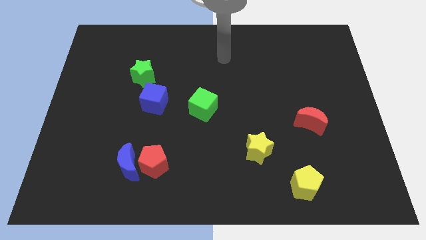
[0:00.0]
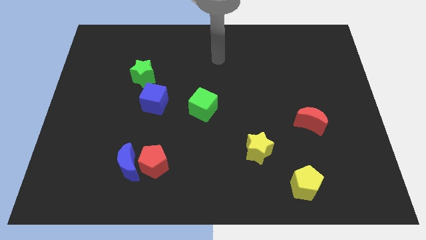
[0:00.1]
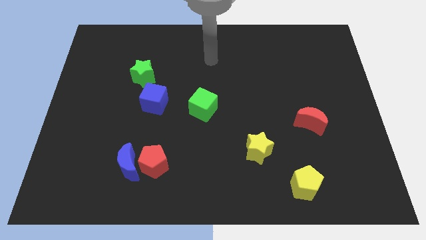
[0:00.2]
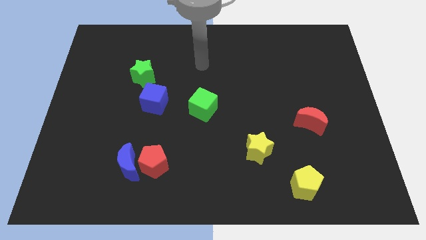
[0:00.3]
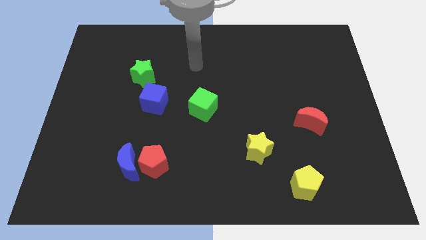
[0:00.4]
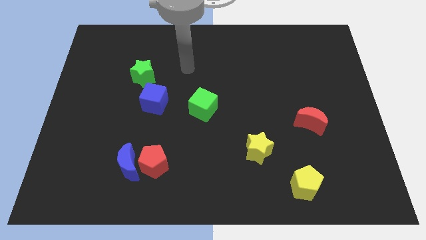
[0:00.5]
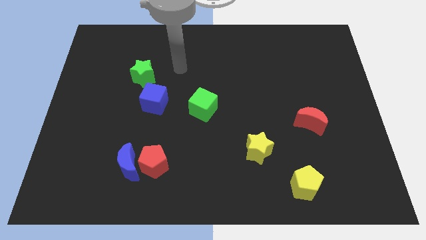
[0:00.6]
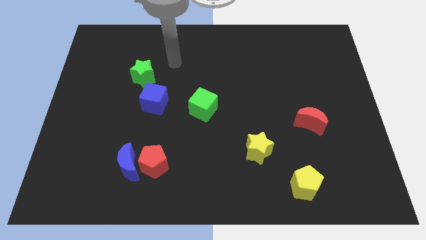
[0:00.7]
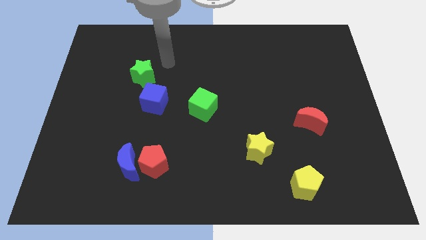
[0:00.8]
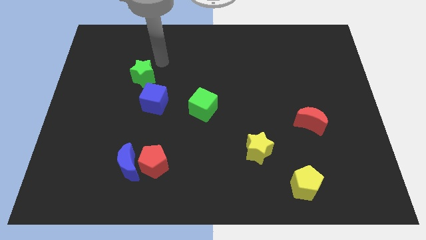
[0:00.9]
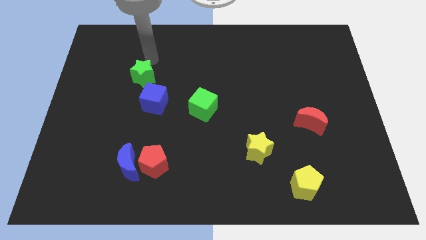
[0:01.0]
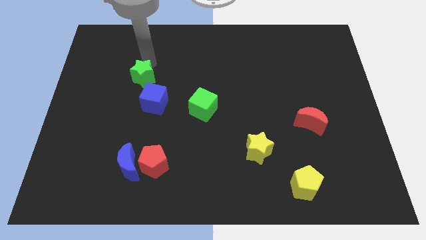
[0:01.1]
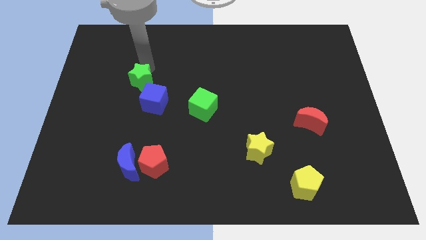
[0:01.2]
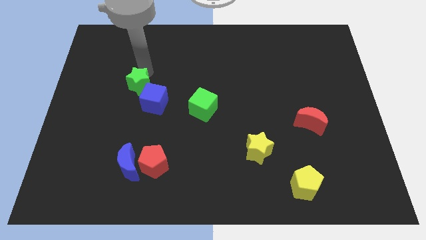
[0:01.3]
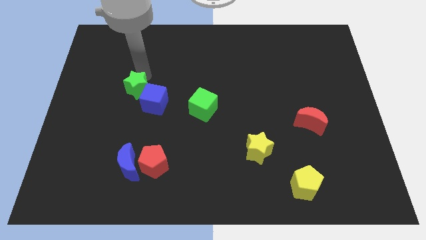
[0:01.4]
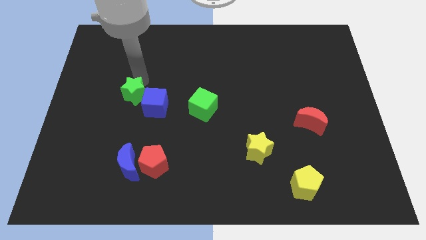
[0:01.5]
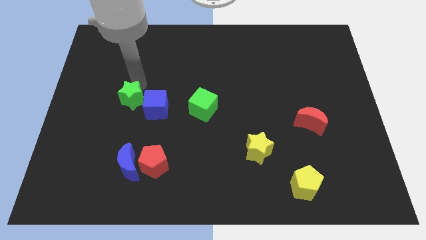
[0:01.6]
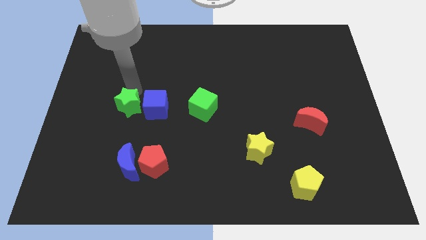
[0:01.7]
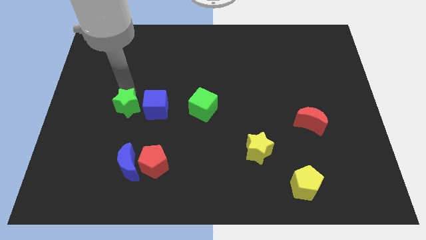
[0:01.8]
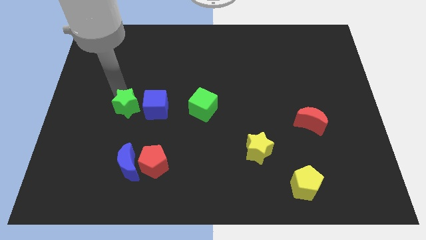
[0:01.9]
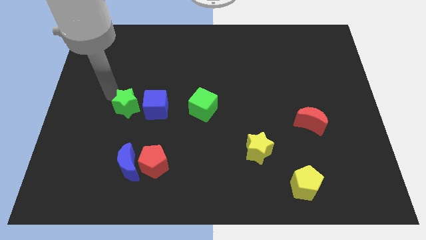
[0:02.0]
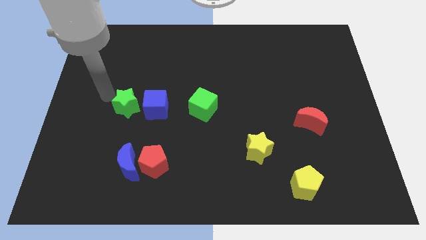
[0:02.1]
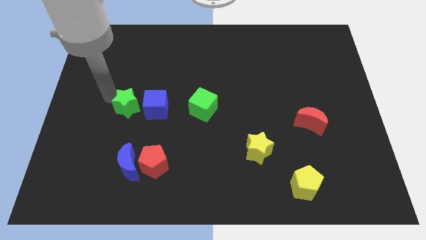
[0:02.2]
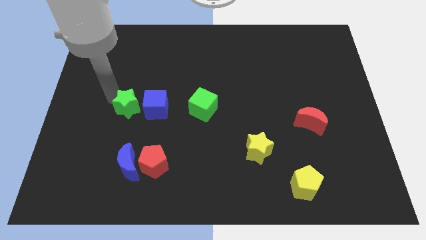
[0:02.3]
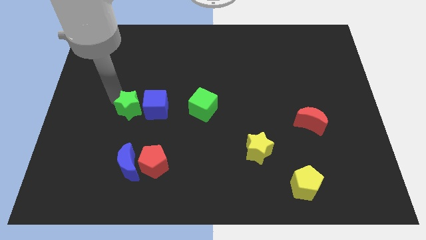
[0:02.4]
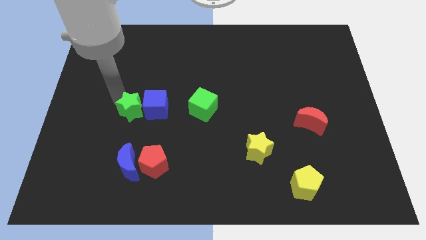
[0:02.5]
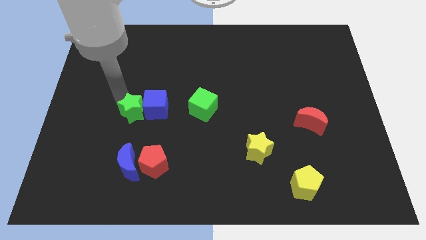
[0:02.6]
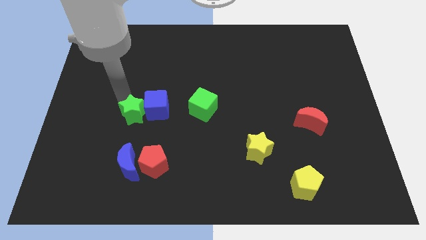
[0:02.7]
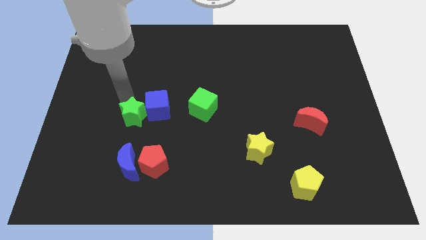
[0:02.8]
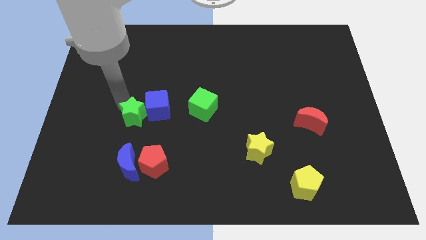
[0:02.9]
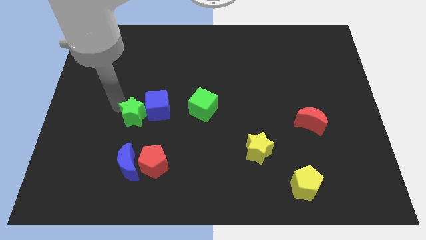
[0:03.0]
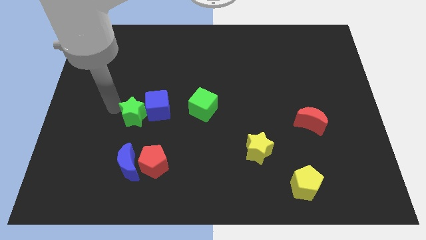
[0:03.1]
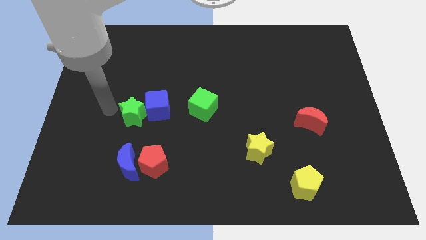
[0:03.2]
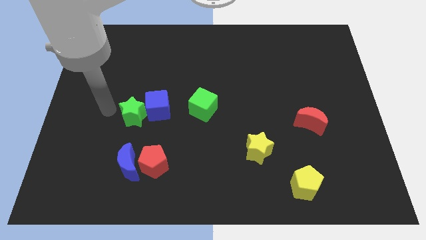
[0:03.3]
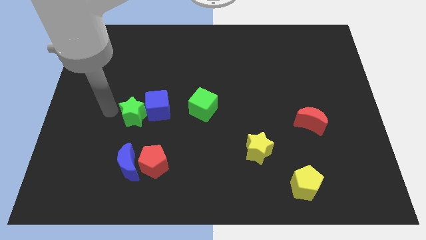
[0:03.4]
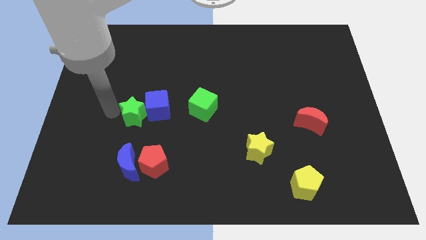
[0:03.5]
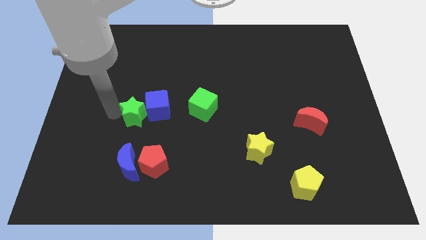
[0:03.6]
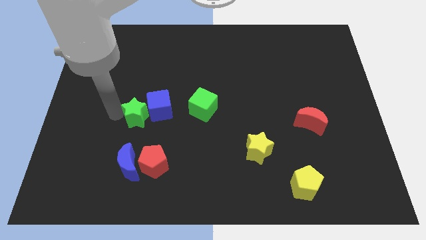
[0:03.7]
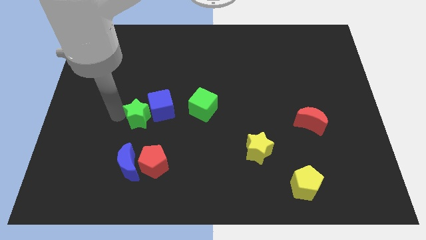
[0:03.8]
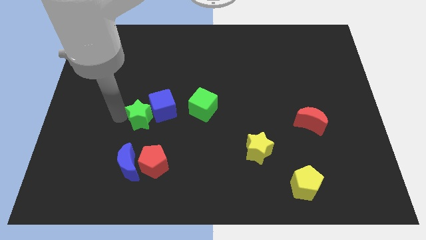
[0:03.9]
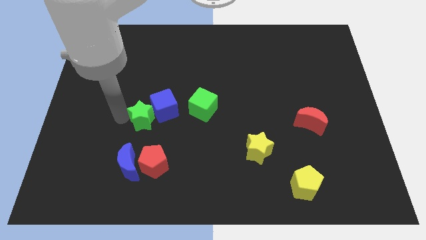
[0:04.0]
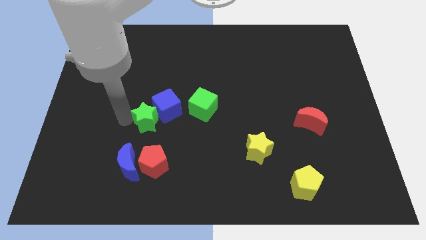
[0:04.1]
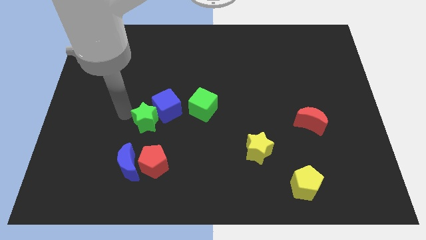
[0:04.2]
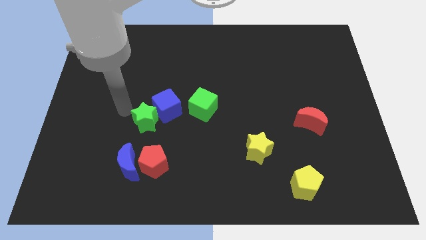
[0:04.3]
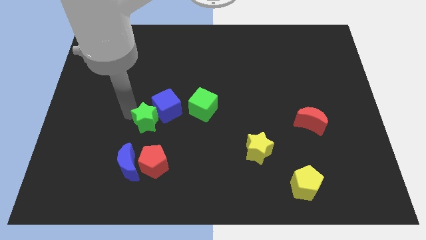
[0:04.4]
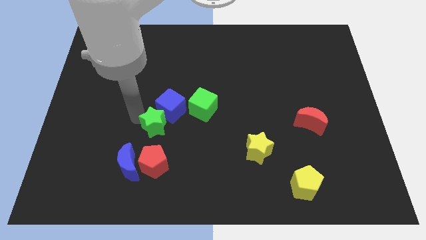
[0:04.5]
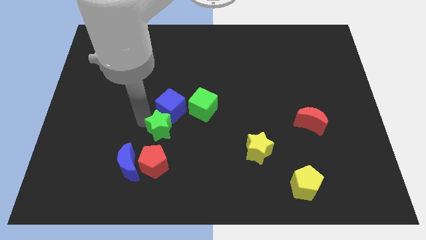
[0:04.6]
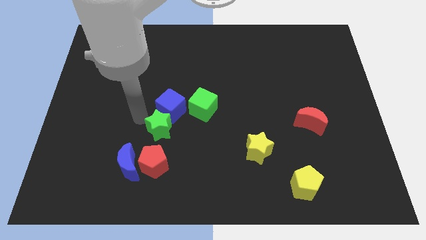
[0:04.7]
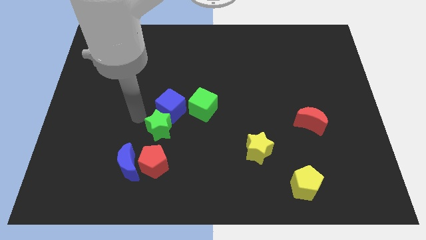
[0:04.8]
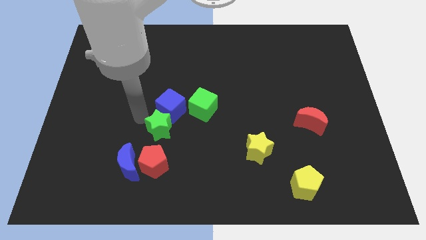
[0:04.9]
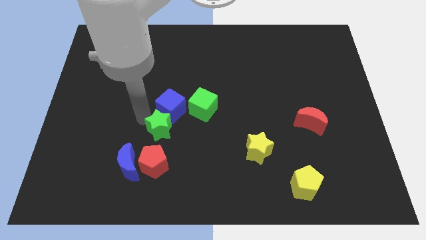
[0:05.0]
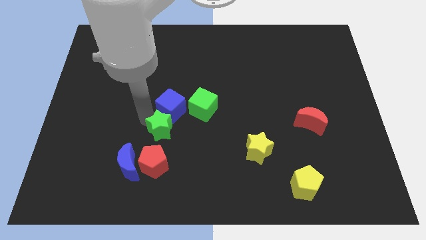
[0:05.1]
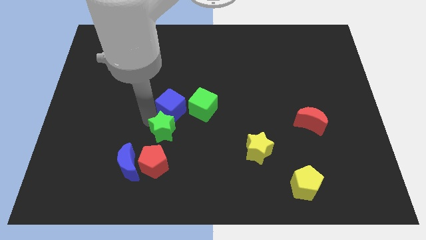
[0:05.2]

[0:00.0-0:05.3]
slide the green star to the top right side of the red pentagon

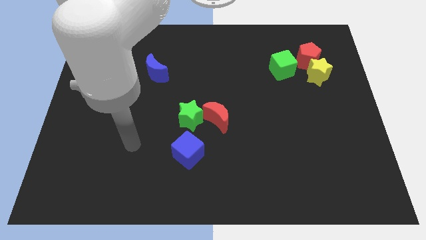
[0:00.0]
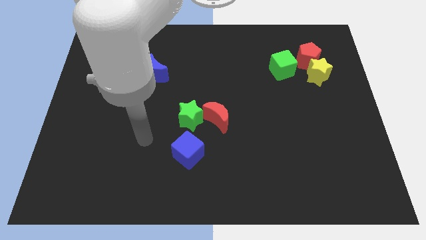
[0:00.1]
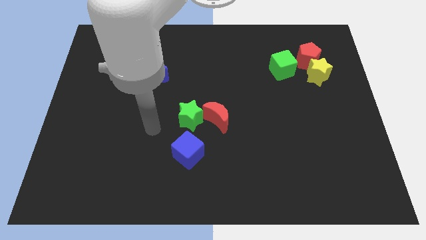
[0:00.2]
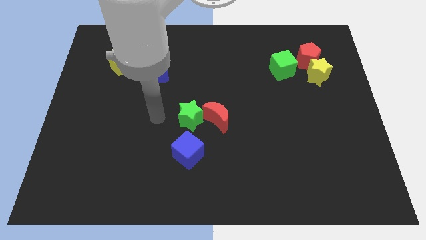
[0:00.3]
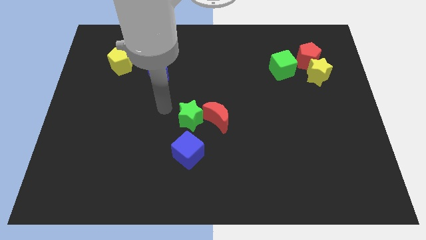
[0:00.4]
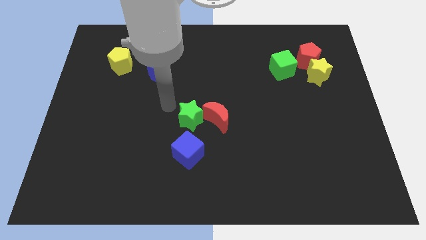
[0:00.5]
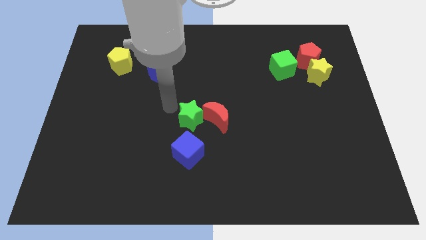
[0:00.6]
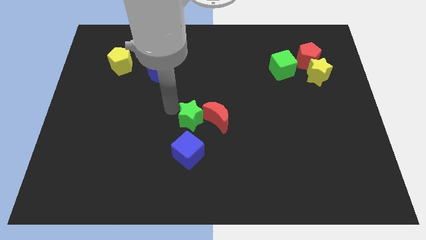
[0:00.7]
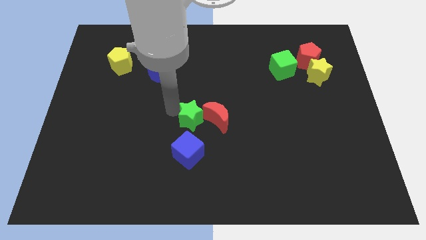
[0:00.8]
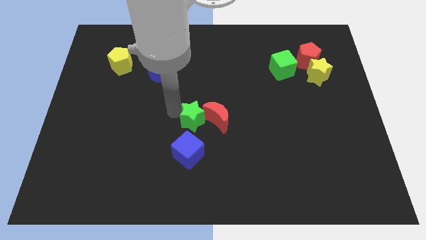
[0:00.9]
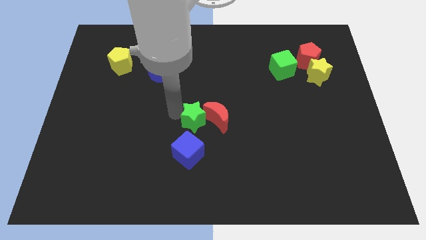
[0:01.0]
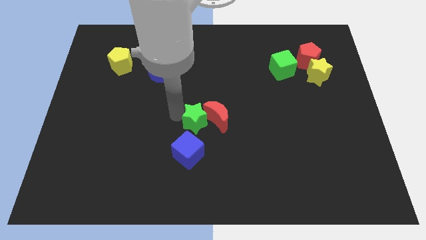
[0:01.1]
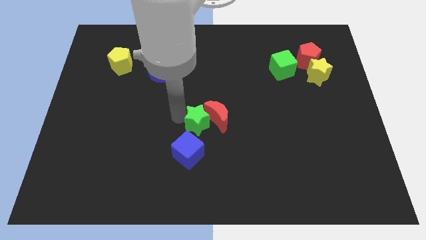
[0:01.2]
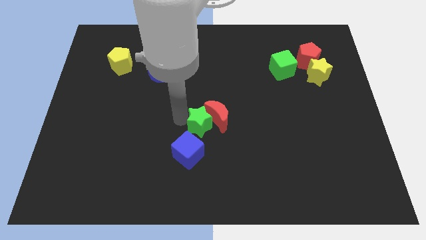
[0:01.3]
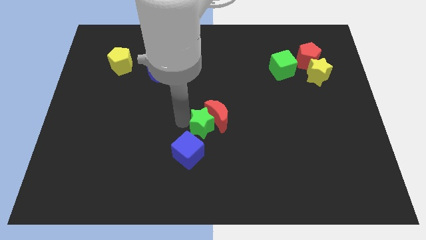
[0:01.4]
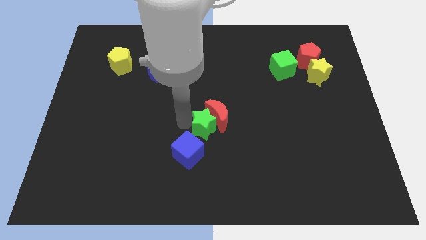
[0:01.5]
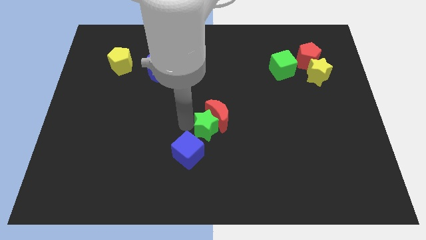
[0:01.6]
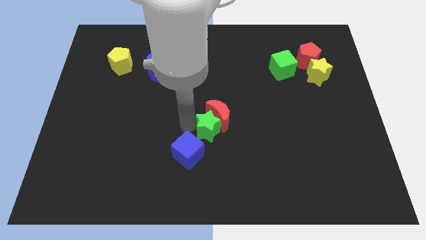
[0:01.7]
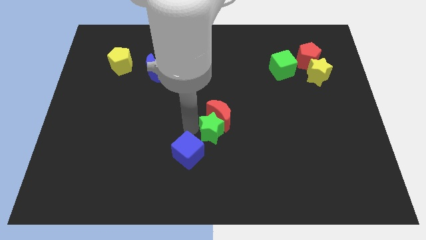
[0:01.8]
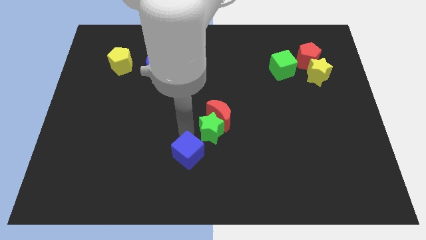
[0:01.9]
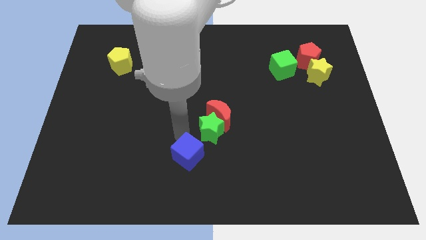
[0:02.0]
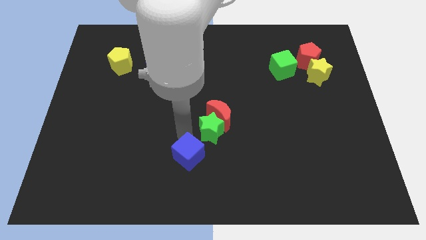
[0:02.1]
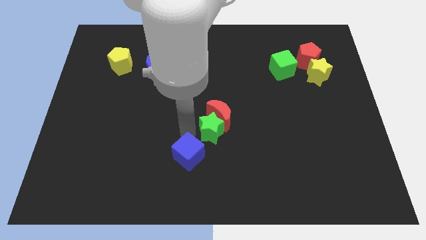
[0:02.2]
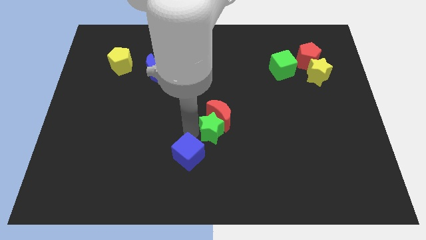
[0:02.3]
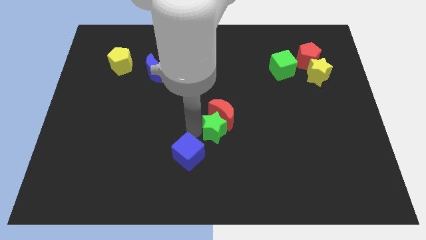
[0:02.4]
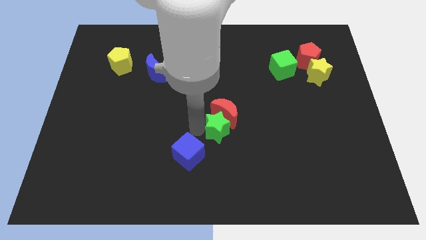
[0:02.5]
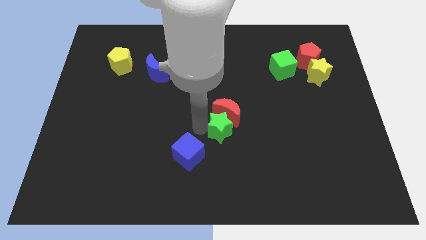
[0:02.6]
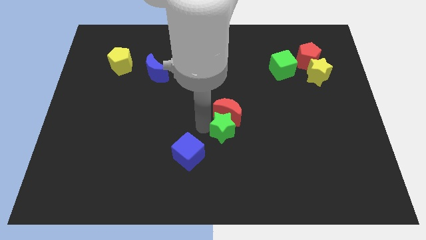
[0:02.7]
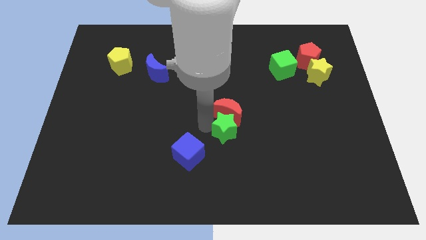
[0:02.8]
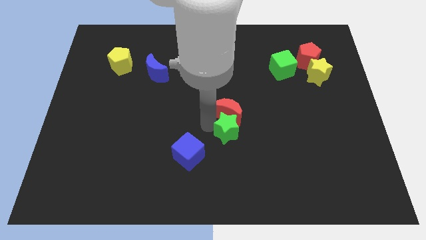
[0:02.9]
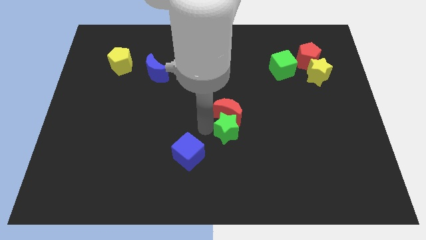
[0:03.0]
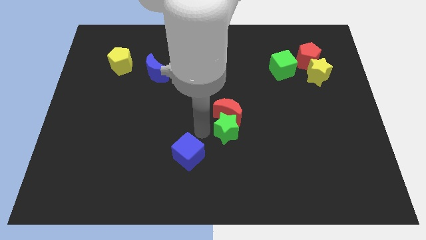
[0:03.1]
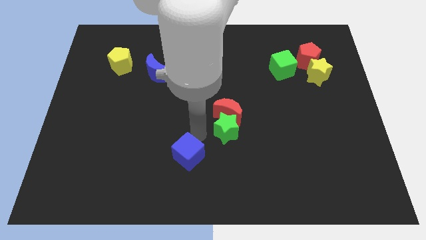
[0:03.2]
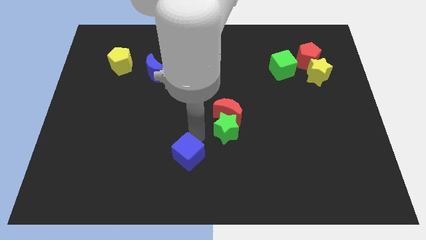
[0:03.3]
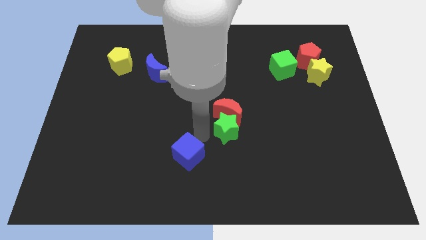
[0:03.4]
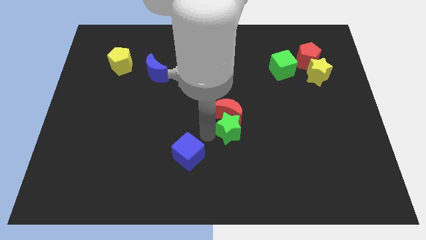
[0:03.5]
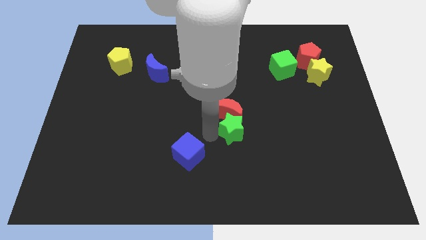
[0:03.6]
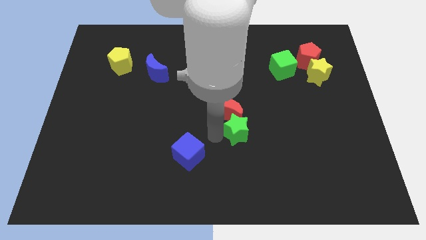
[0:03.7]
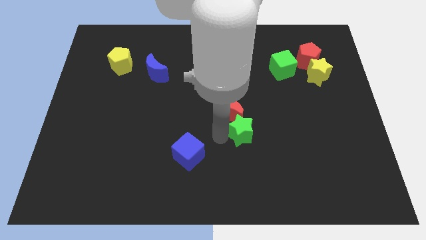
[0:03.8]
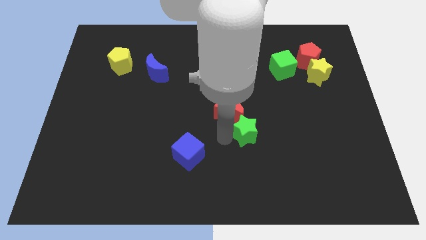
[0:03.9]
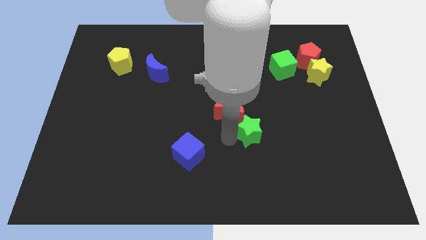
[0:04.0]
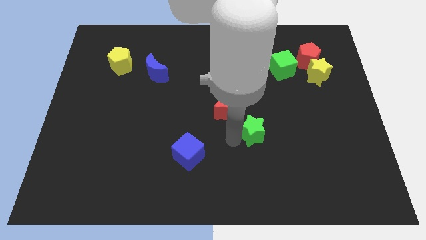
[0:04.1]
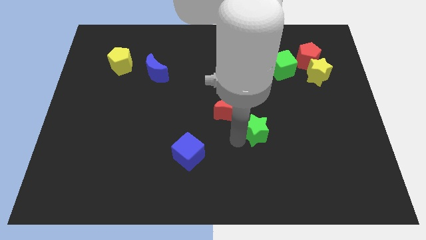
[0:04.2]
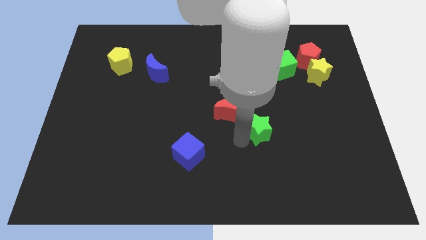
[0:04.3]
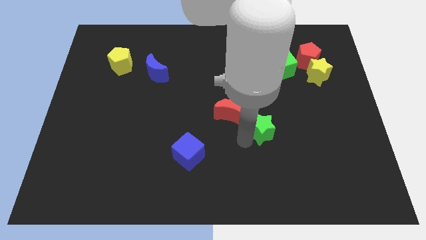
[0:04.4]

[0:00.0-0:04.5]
slide the green star to the right side of the red moon
